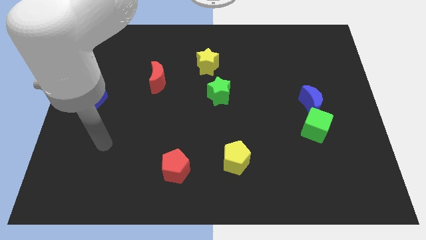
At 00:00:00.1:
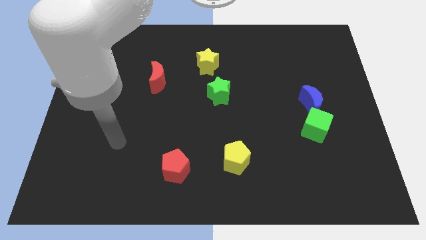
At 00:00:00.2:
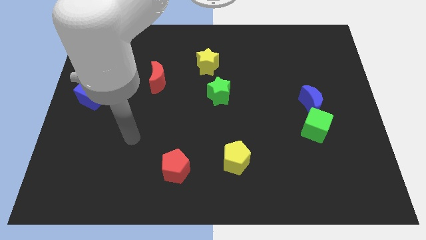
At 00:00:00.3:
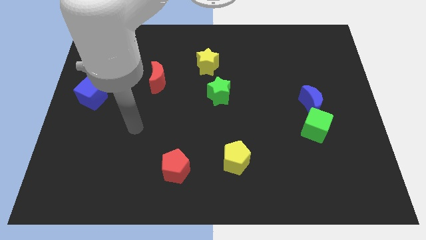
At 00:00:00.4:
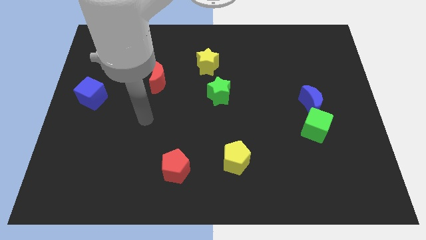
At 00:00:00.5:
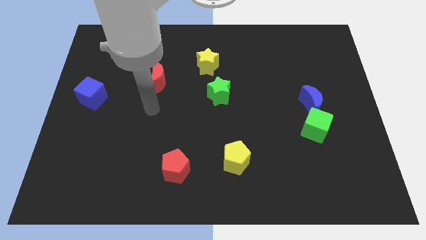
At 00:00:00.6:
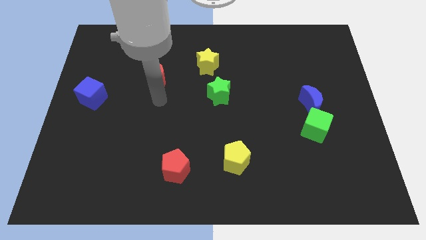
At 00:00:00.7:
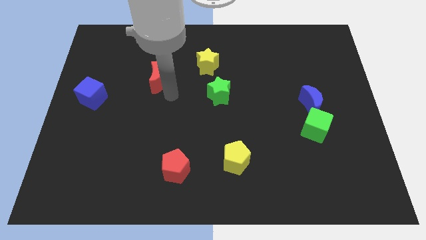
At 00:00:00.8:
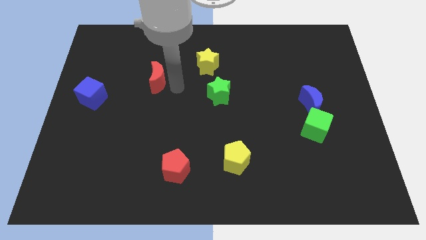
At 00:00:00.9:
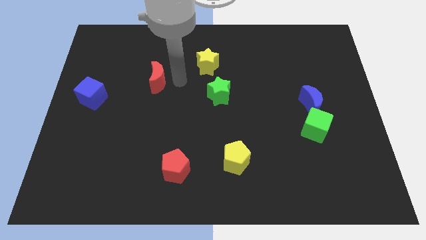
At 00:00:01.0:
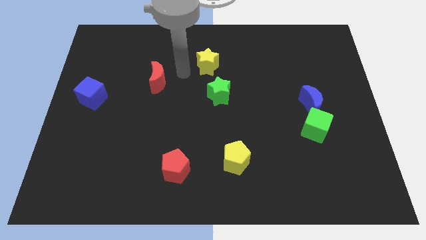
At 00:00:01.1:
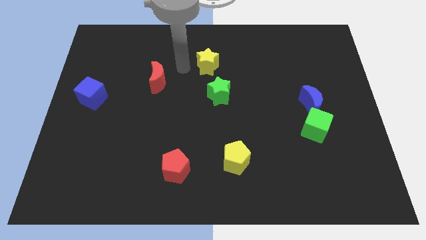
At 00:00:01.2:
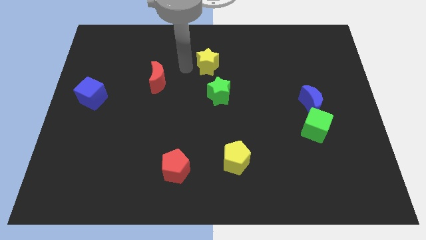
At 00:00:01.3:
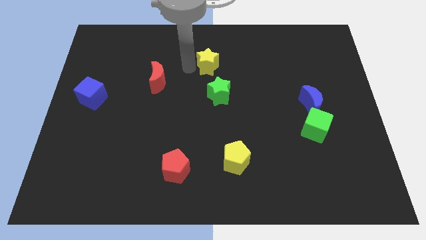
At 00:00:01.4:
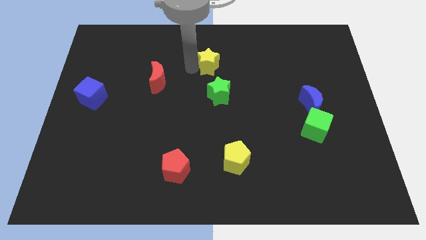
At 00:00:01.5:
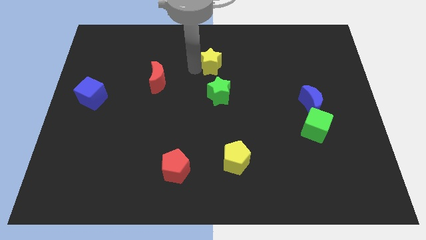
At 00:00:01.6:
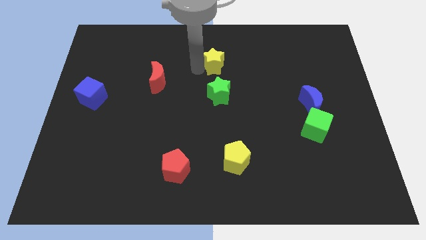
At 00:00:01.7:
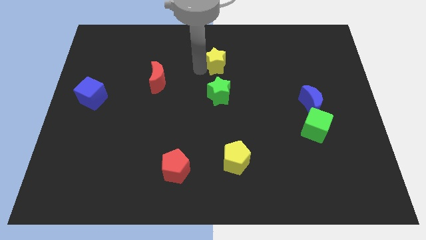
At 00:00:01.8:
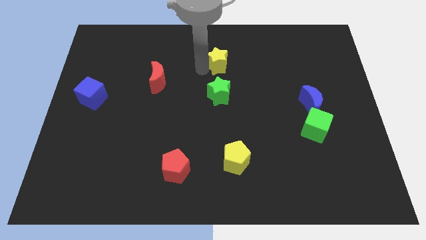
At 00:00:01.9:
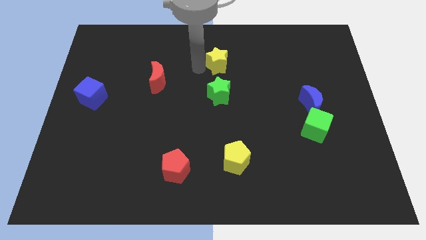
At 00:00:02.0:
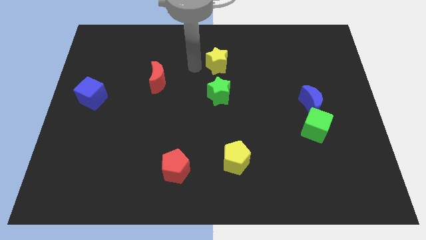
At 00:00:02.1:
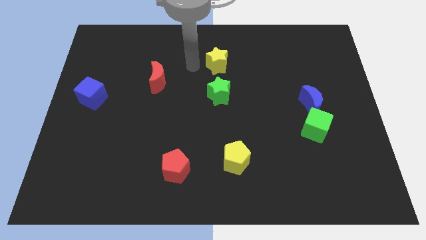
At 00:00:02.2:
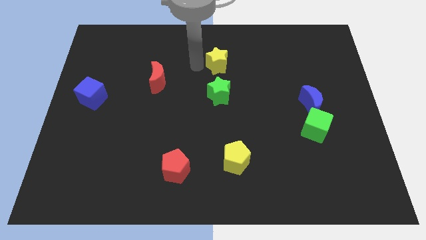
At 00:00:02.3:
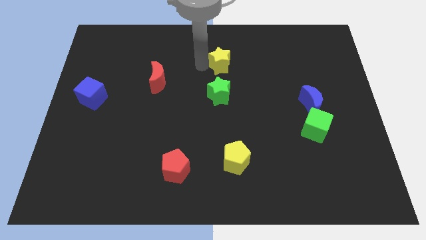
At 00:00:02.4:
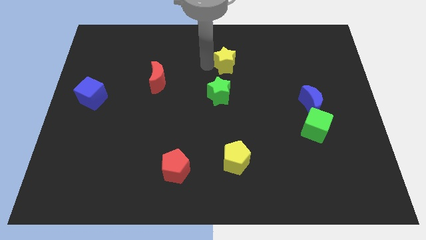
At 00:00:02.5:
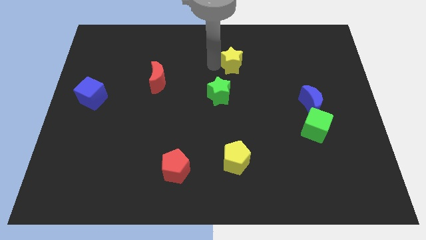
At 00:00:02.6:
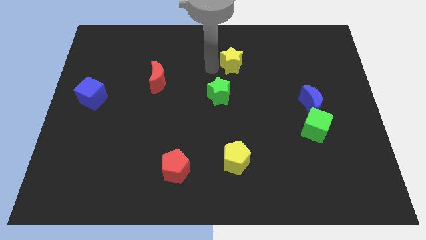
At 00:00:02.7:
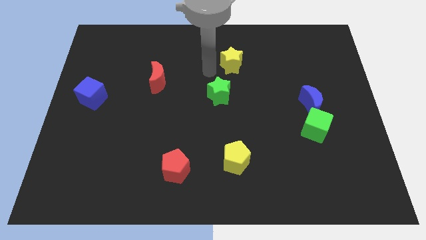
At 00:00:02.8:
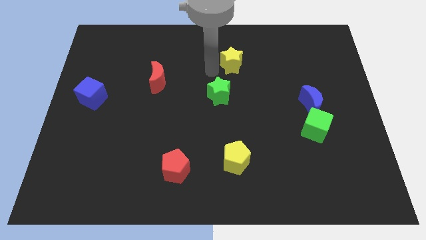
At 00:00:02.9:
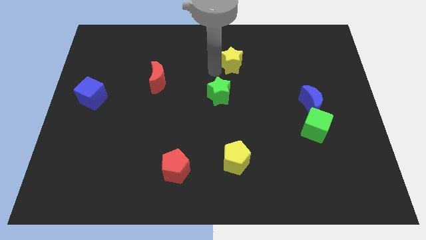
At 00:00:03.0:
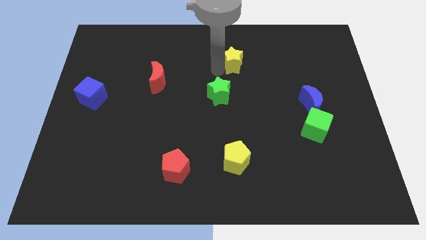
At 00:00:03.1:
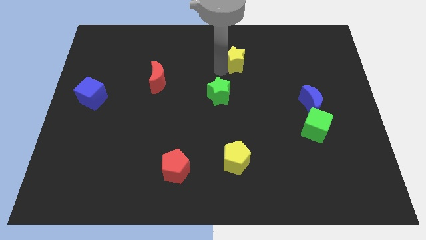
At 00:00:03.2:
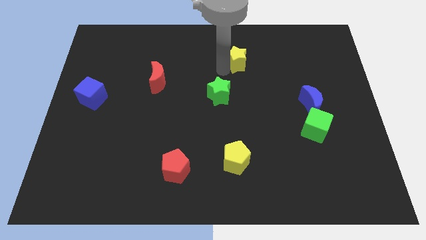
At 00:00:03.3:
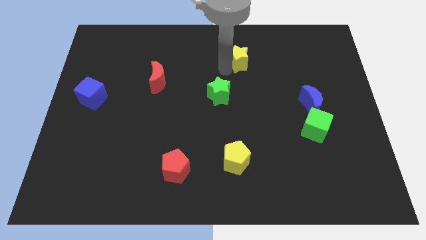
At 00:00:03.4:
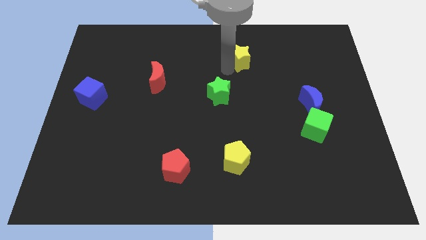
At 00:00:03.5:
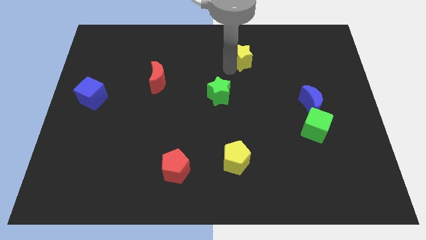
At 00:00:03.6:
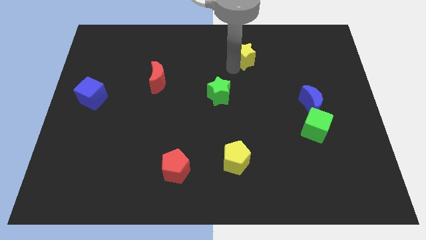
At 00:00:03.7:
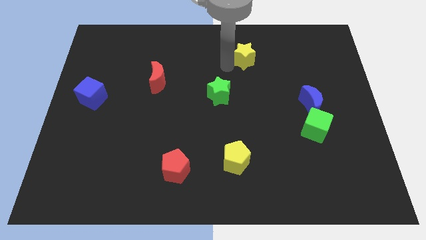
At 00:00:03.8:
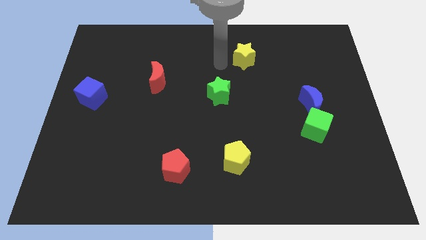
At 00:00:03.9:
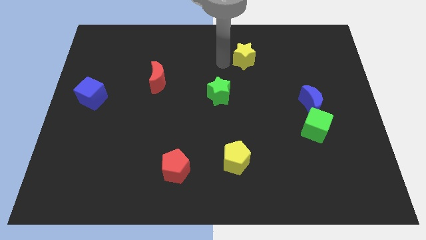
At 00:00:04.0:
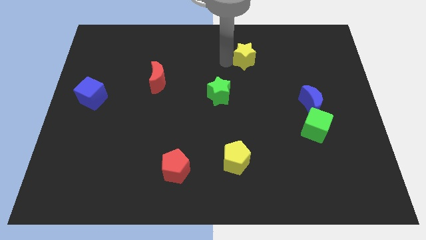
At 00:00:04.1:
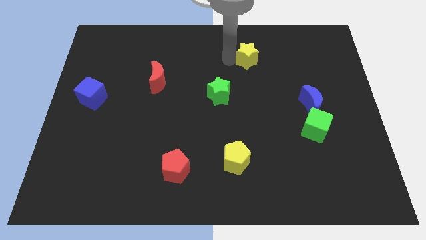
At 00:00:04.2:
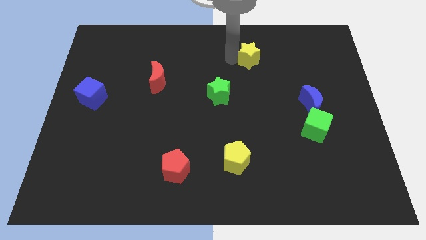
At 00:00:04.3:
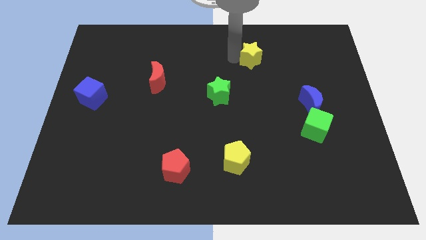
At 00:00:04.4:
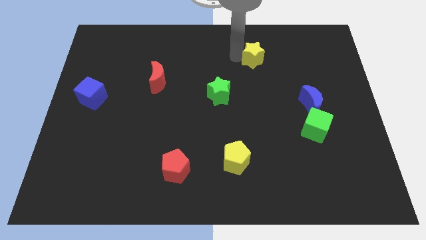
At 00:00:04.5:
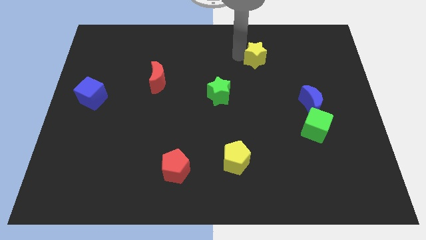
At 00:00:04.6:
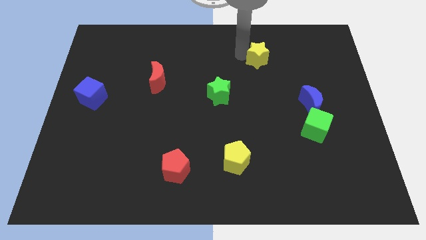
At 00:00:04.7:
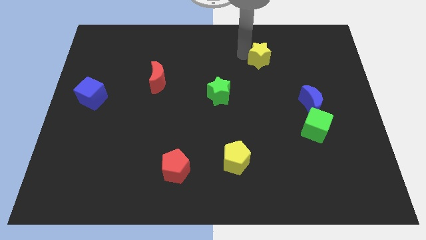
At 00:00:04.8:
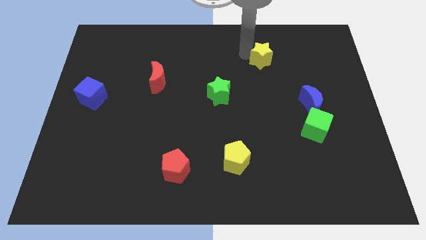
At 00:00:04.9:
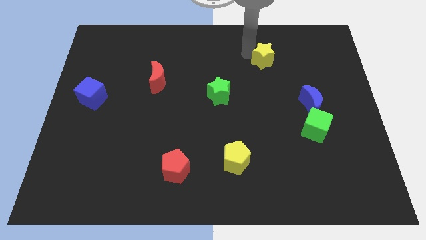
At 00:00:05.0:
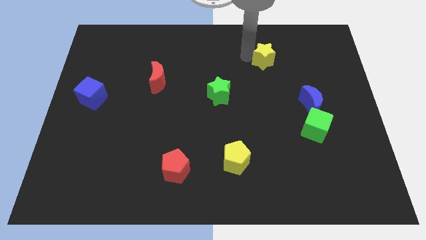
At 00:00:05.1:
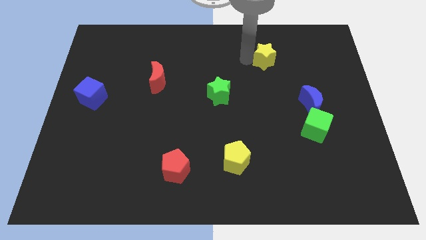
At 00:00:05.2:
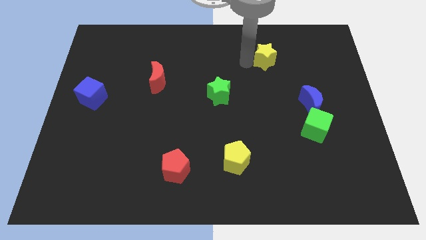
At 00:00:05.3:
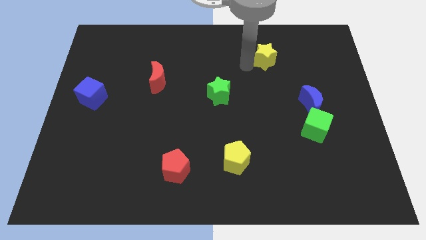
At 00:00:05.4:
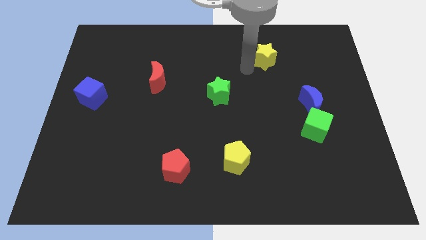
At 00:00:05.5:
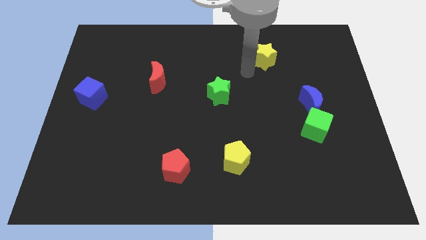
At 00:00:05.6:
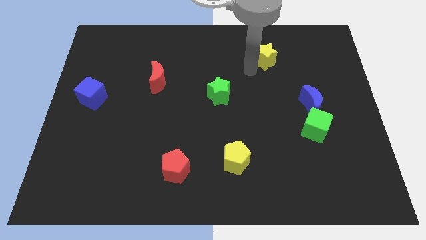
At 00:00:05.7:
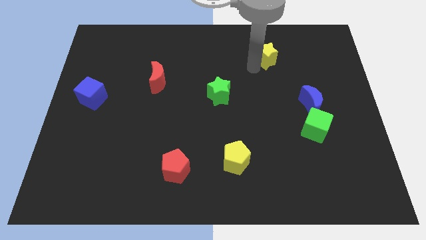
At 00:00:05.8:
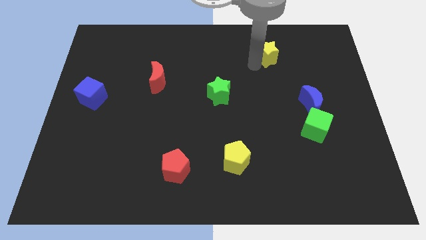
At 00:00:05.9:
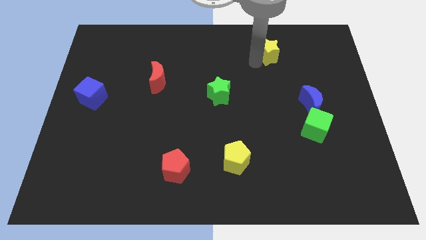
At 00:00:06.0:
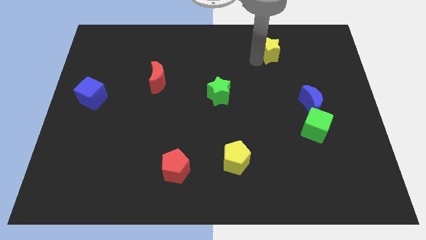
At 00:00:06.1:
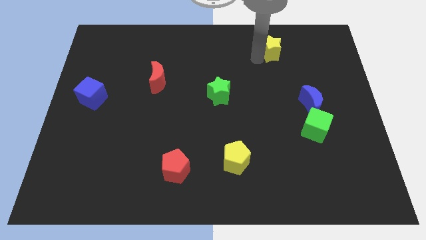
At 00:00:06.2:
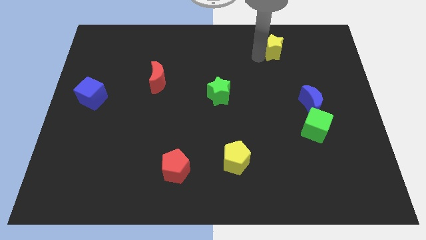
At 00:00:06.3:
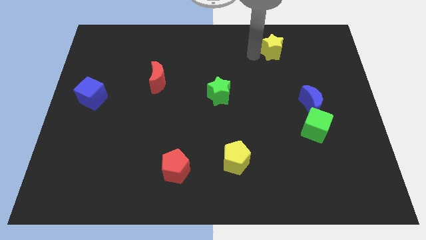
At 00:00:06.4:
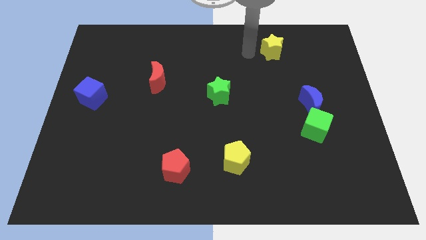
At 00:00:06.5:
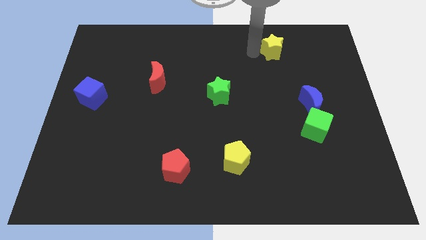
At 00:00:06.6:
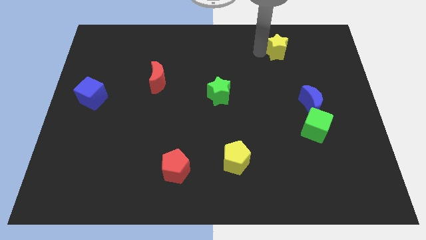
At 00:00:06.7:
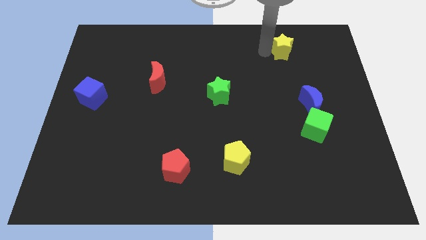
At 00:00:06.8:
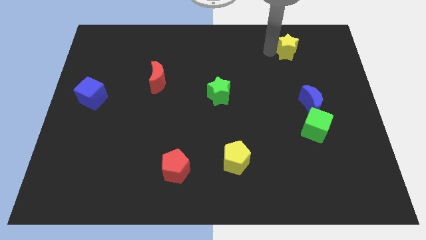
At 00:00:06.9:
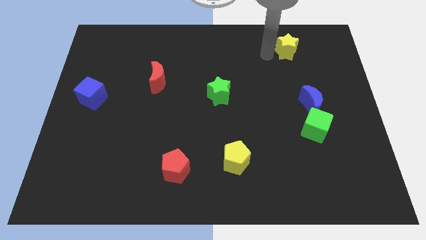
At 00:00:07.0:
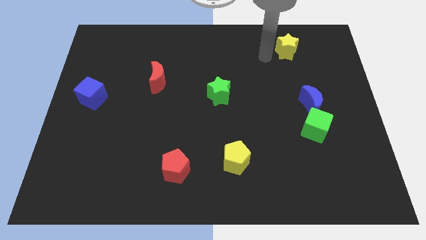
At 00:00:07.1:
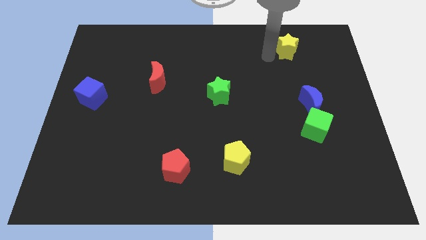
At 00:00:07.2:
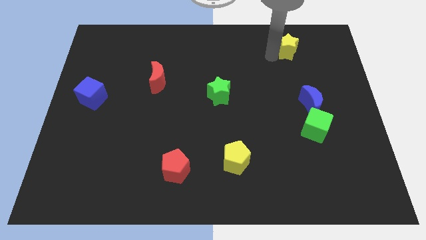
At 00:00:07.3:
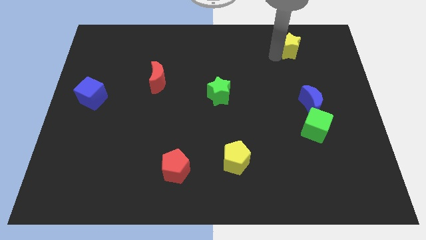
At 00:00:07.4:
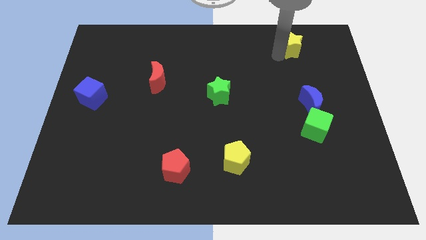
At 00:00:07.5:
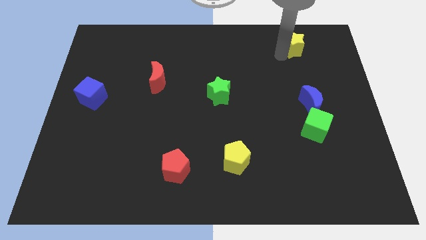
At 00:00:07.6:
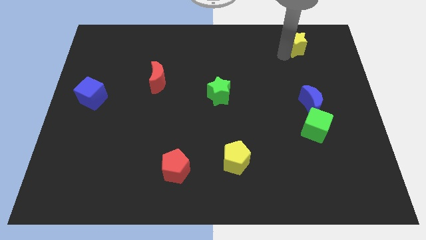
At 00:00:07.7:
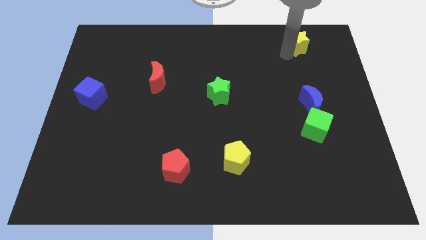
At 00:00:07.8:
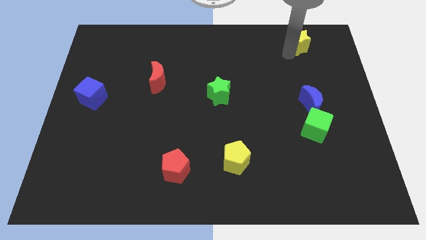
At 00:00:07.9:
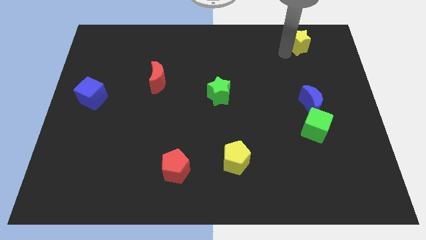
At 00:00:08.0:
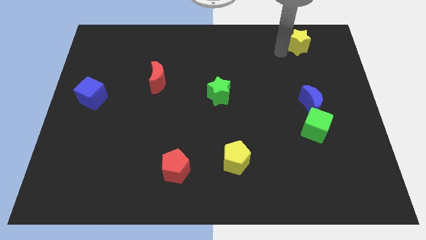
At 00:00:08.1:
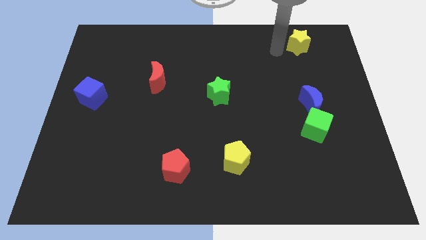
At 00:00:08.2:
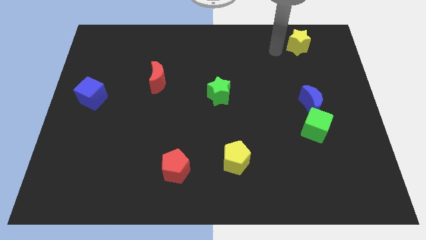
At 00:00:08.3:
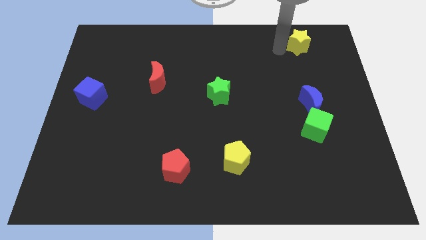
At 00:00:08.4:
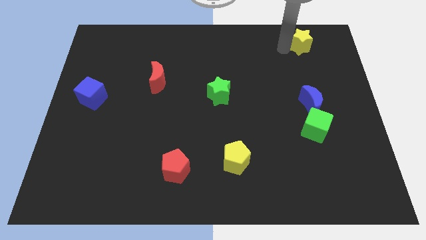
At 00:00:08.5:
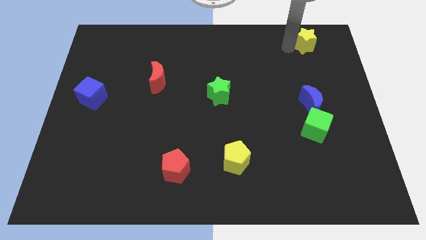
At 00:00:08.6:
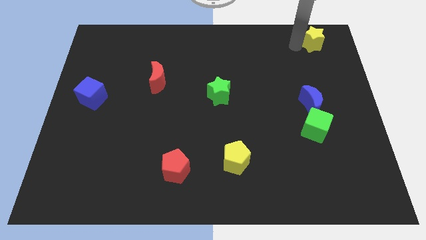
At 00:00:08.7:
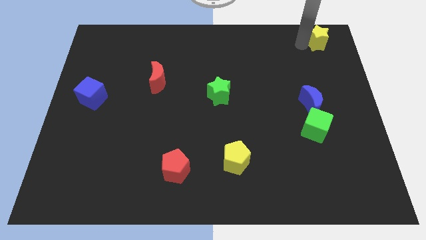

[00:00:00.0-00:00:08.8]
slide the yellow star to the top right corner
